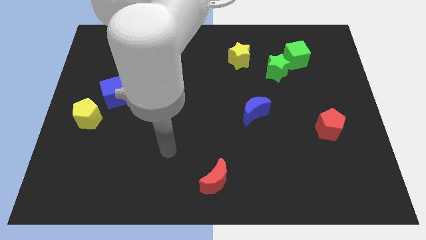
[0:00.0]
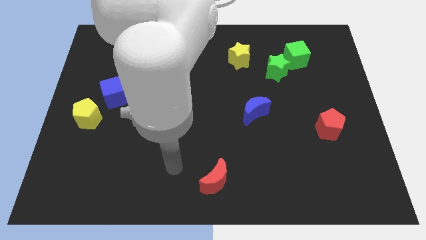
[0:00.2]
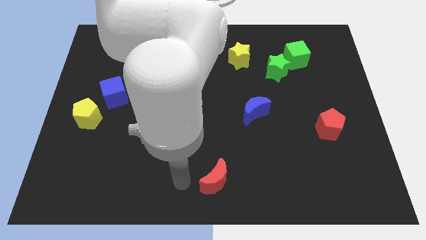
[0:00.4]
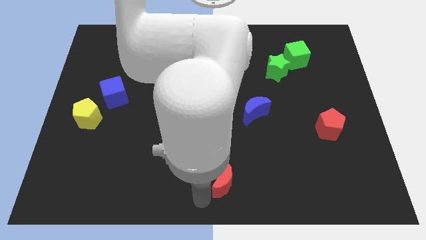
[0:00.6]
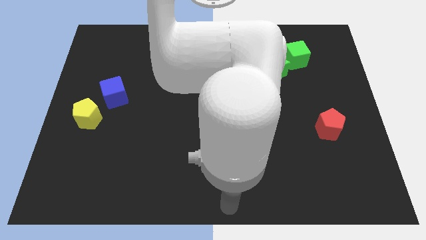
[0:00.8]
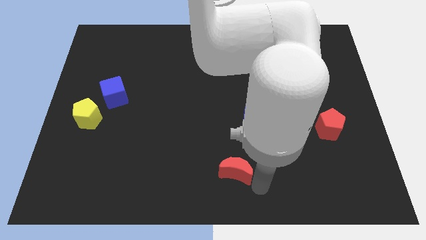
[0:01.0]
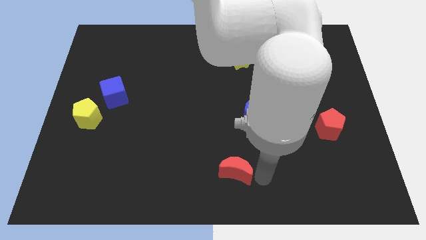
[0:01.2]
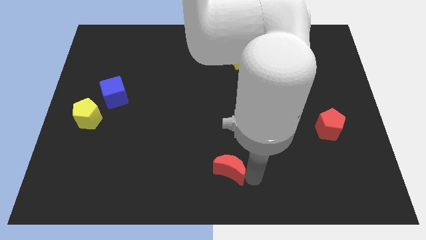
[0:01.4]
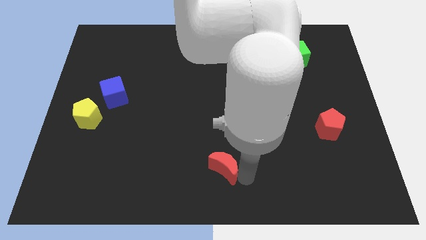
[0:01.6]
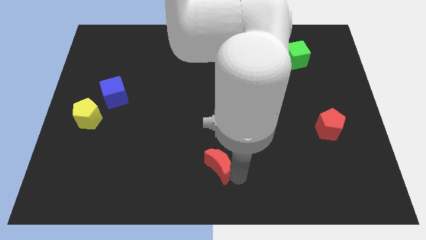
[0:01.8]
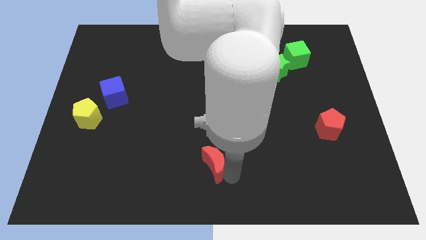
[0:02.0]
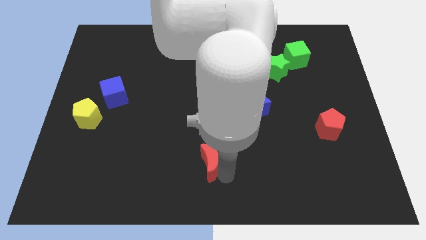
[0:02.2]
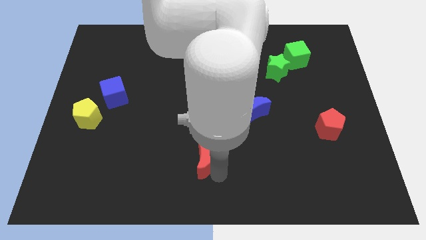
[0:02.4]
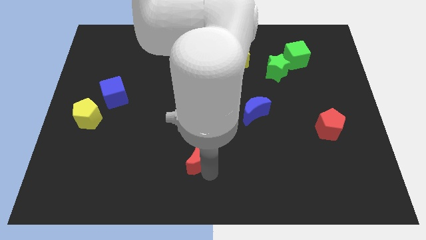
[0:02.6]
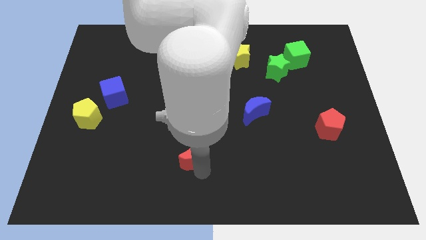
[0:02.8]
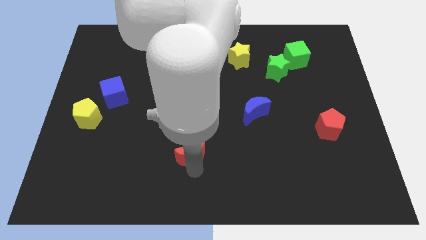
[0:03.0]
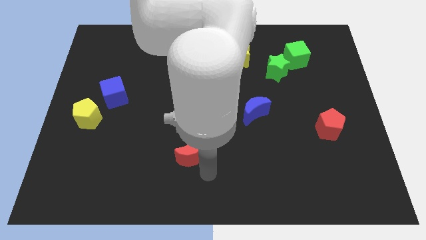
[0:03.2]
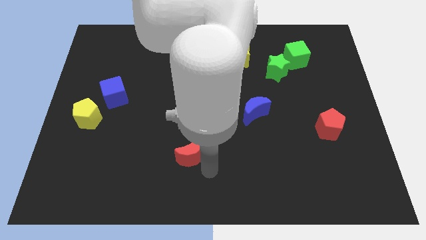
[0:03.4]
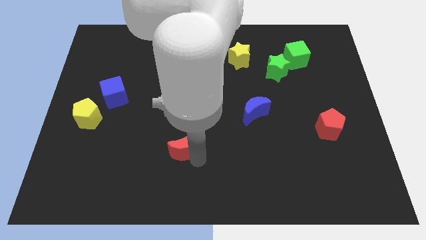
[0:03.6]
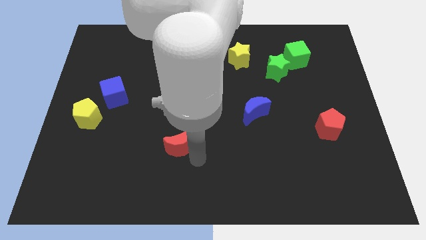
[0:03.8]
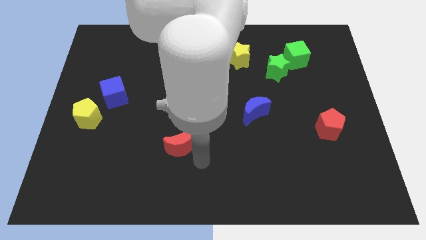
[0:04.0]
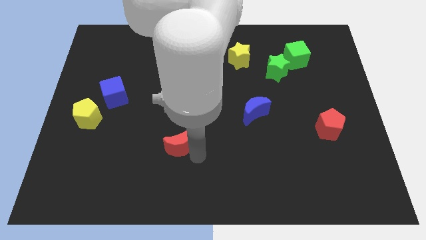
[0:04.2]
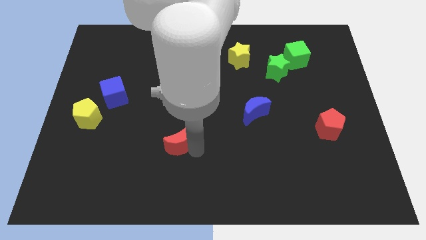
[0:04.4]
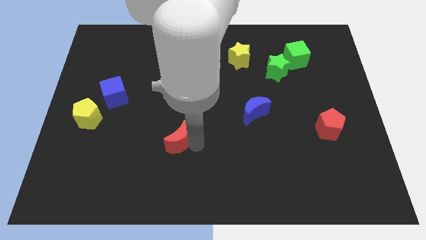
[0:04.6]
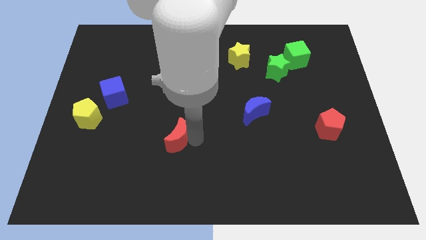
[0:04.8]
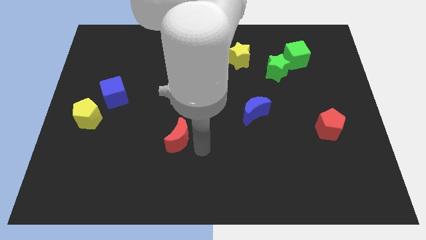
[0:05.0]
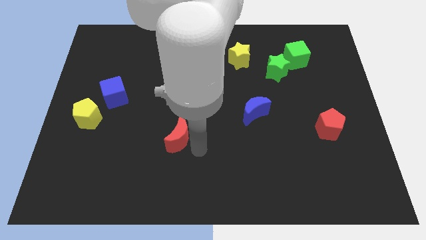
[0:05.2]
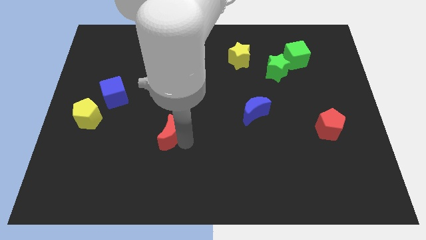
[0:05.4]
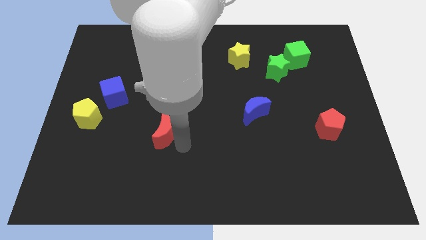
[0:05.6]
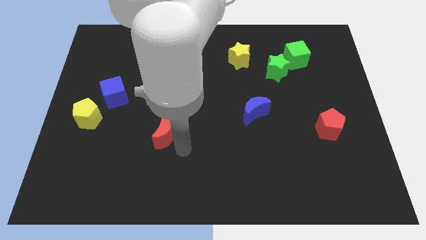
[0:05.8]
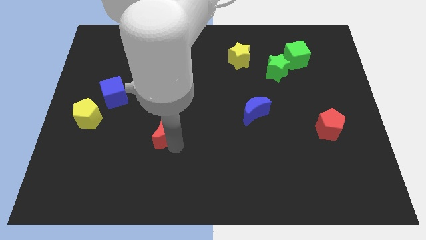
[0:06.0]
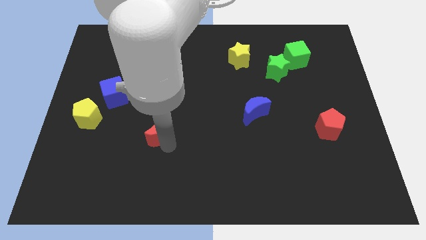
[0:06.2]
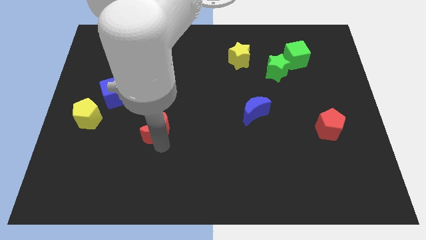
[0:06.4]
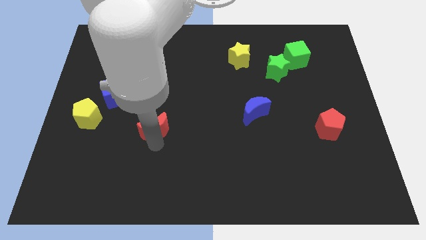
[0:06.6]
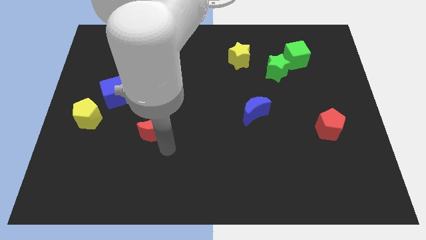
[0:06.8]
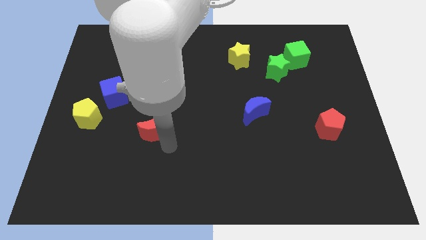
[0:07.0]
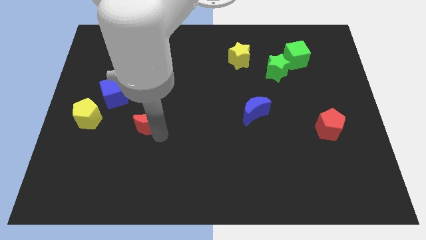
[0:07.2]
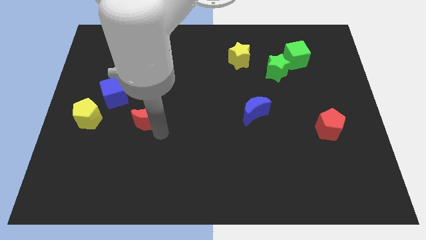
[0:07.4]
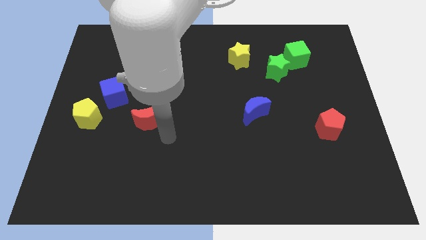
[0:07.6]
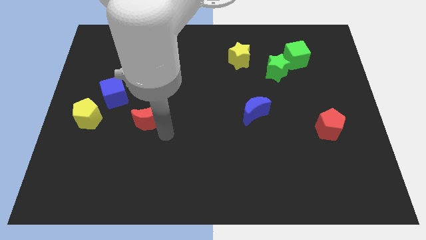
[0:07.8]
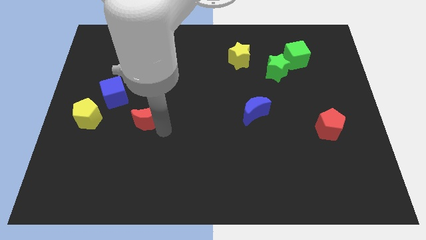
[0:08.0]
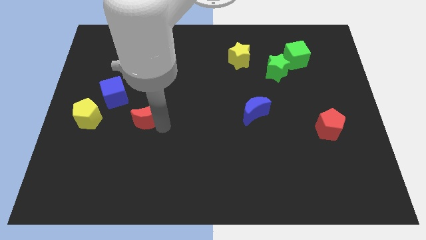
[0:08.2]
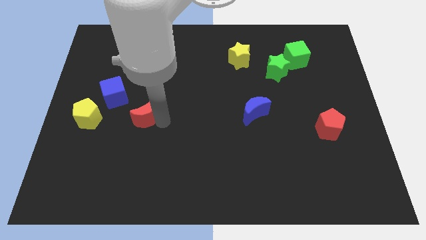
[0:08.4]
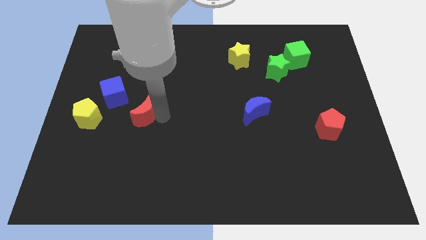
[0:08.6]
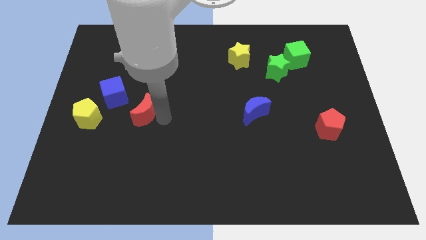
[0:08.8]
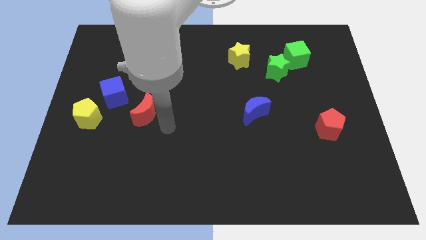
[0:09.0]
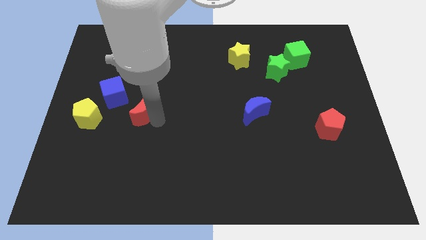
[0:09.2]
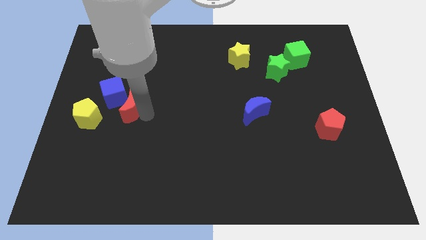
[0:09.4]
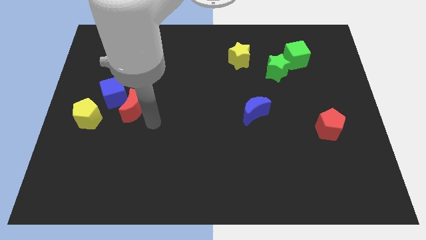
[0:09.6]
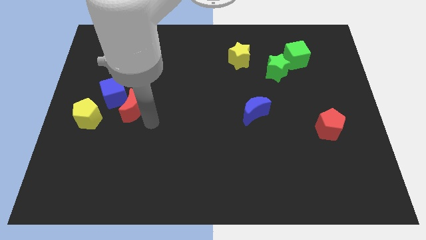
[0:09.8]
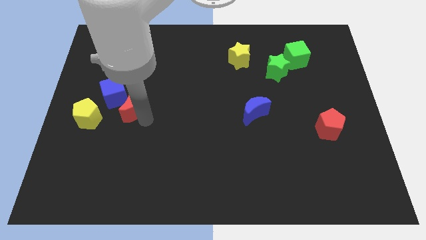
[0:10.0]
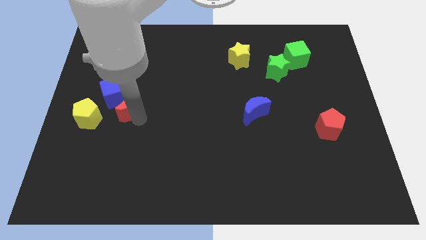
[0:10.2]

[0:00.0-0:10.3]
move the red moon next to the blue cube

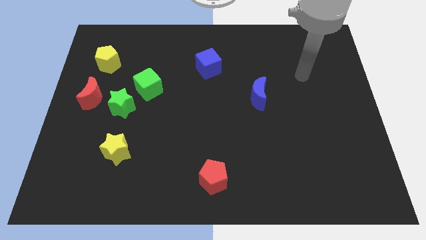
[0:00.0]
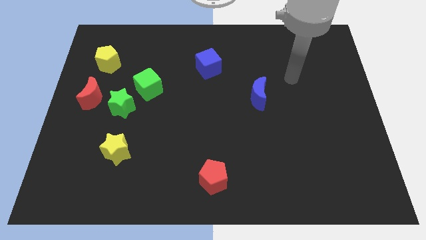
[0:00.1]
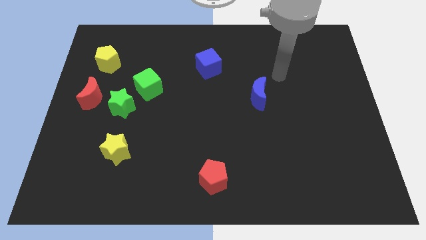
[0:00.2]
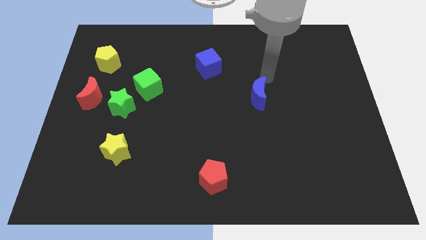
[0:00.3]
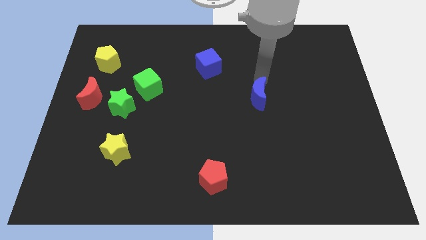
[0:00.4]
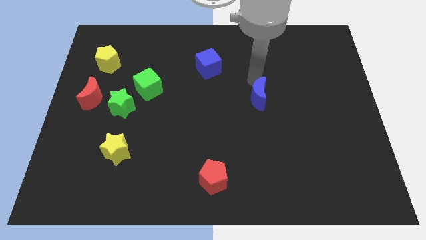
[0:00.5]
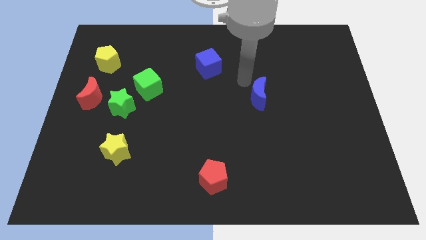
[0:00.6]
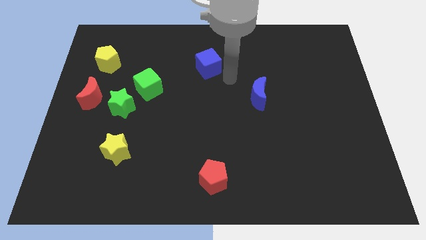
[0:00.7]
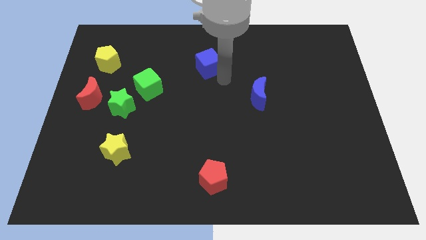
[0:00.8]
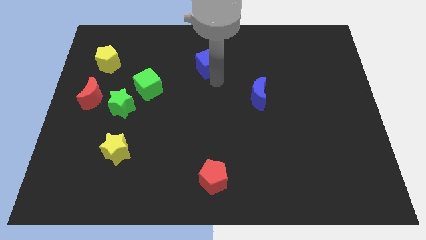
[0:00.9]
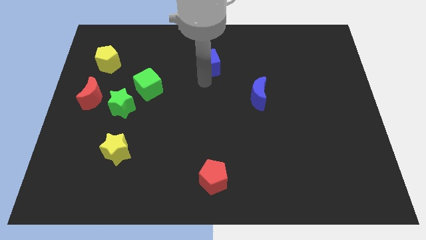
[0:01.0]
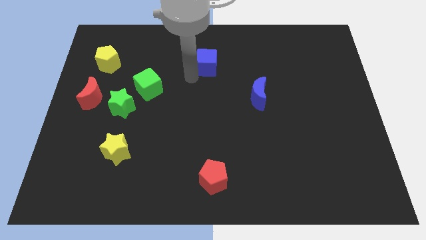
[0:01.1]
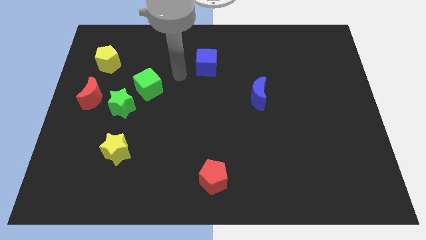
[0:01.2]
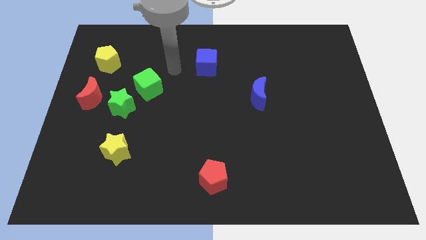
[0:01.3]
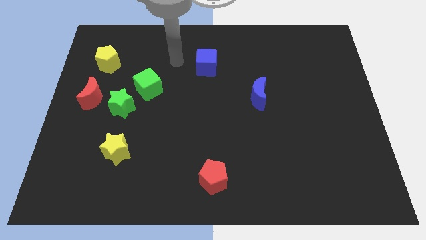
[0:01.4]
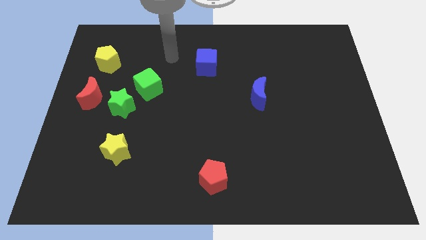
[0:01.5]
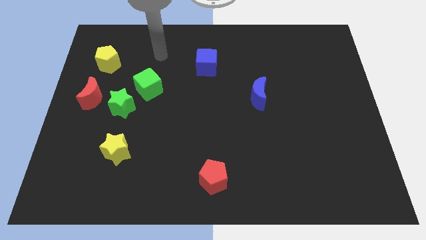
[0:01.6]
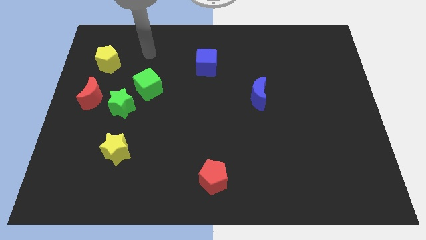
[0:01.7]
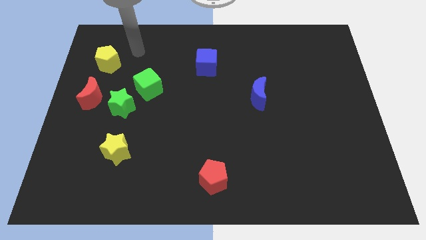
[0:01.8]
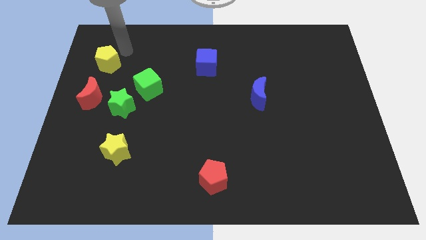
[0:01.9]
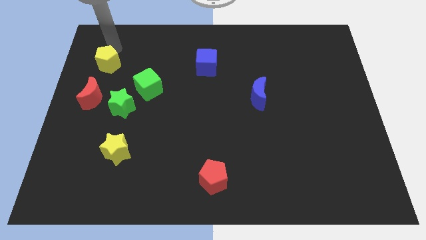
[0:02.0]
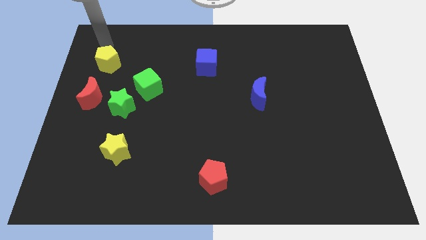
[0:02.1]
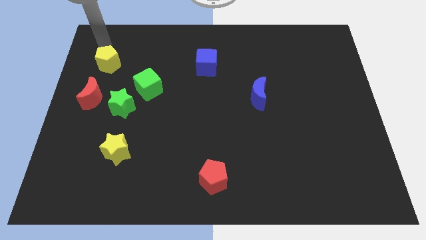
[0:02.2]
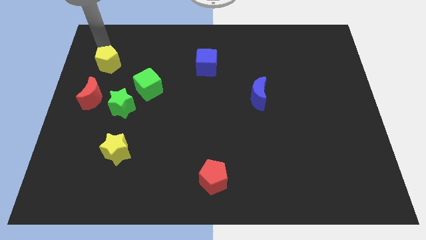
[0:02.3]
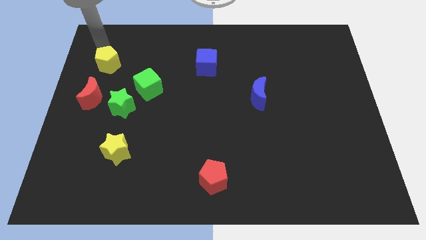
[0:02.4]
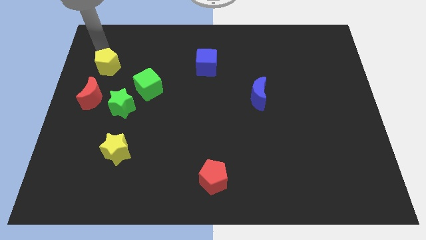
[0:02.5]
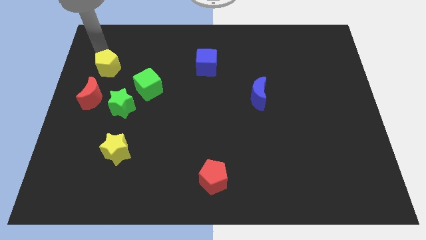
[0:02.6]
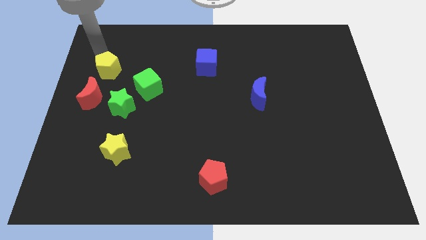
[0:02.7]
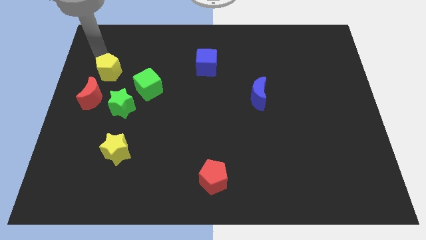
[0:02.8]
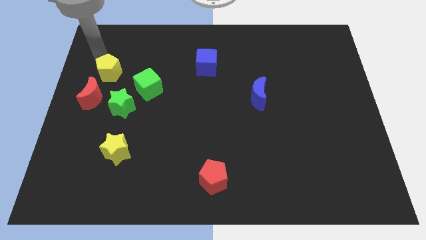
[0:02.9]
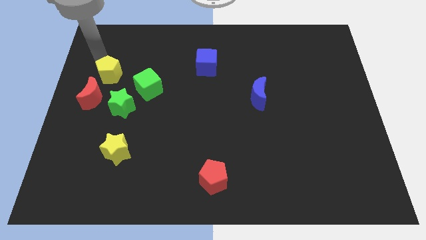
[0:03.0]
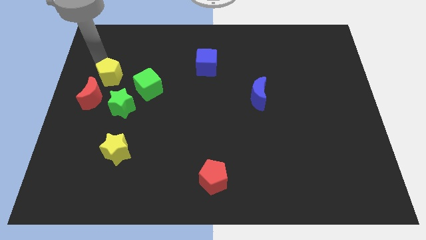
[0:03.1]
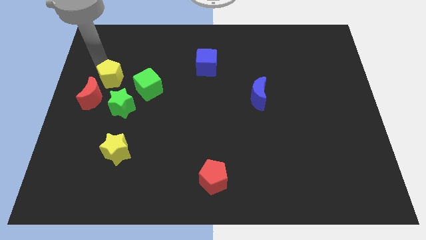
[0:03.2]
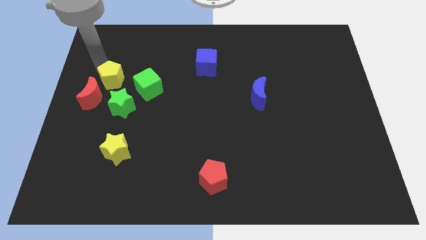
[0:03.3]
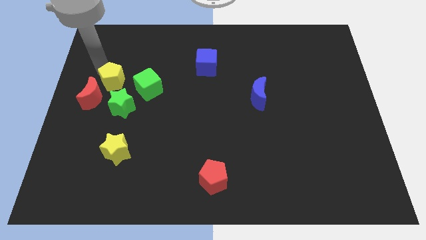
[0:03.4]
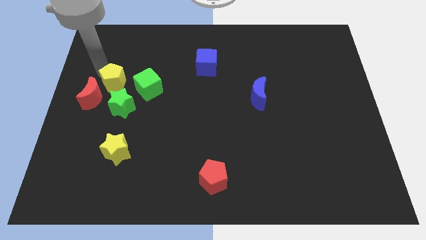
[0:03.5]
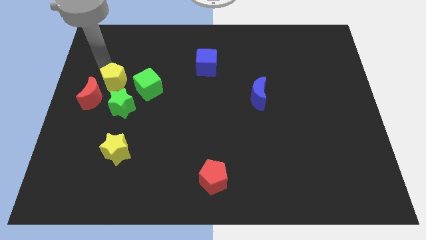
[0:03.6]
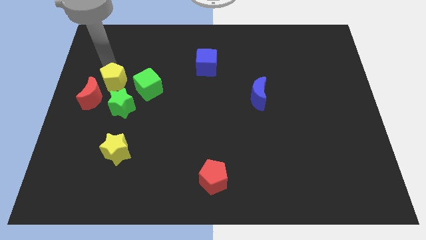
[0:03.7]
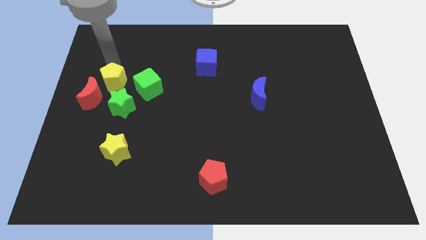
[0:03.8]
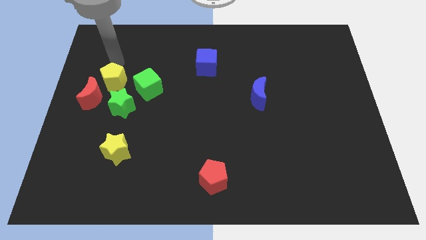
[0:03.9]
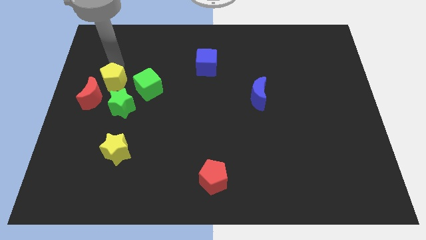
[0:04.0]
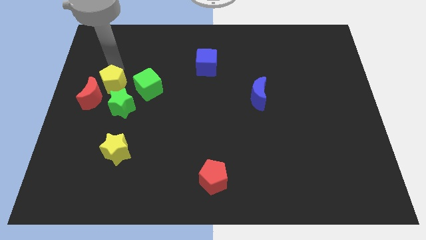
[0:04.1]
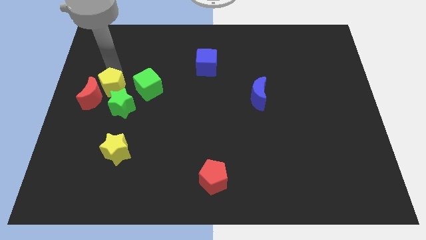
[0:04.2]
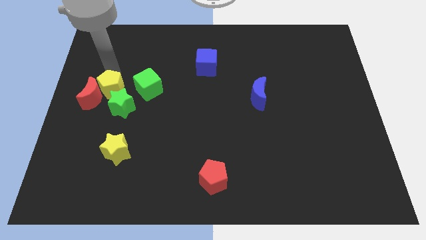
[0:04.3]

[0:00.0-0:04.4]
put the yellow pentagon towards the green star
